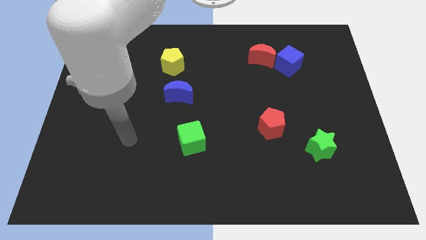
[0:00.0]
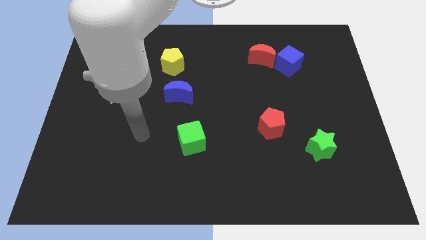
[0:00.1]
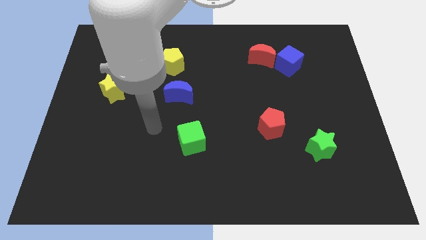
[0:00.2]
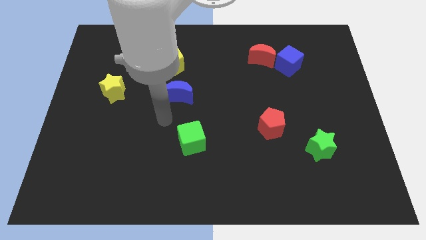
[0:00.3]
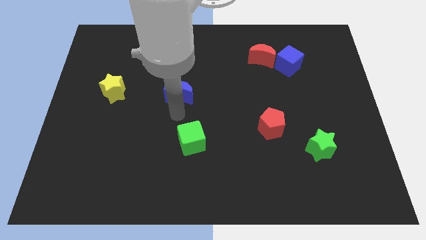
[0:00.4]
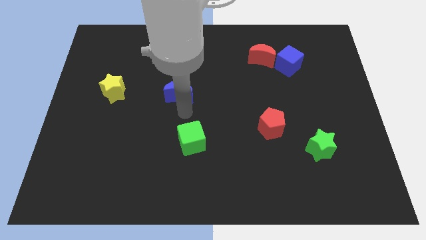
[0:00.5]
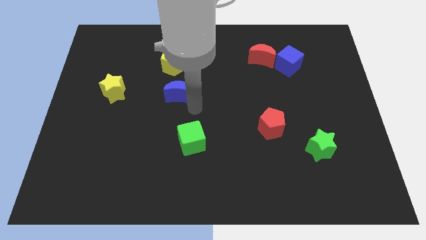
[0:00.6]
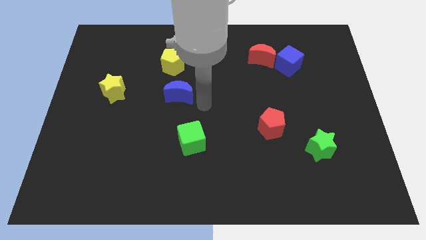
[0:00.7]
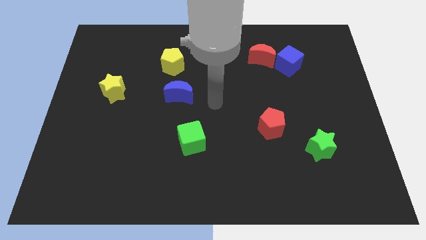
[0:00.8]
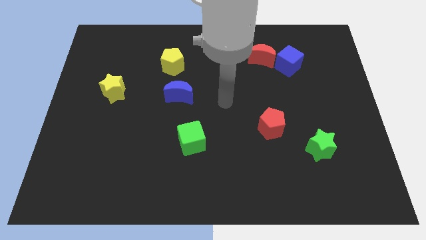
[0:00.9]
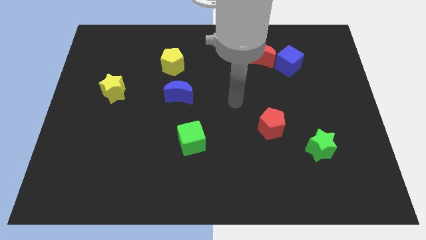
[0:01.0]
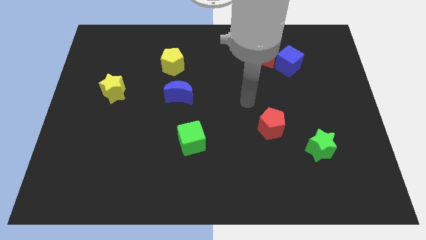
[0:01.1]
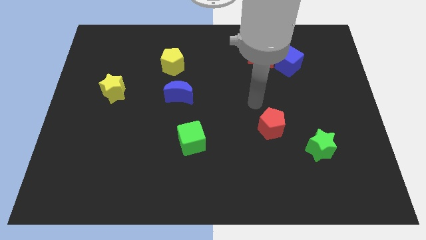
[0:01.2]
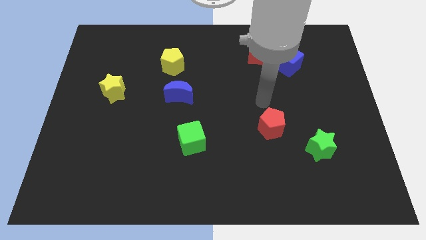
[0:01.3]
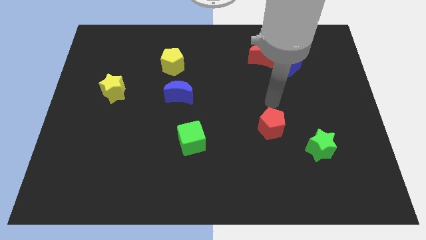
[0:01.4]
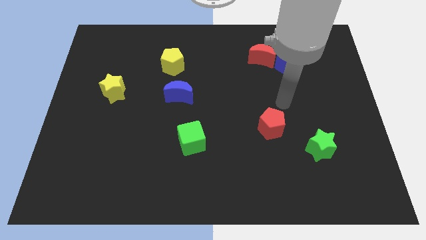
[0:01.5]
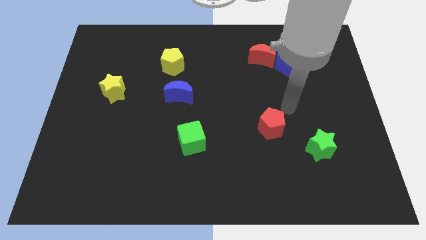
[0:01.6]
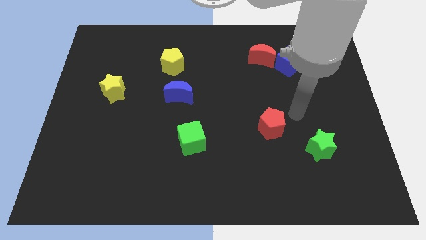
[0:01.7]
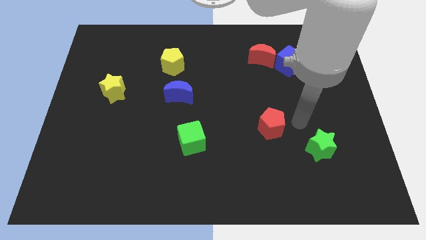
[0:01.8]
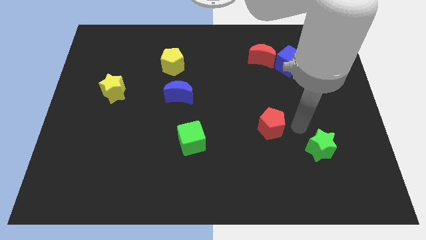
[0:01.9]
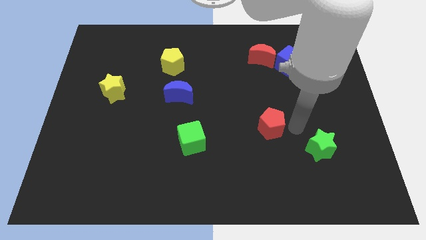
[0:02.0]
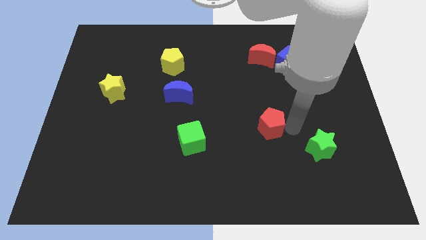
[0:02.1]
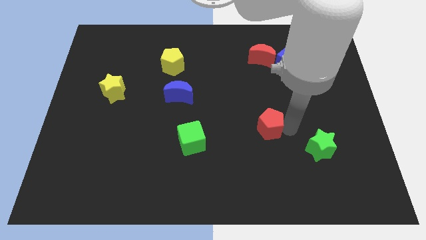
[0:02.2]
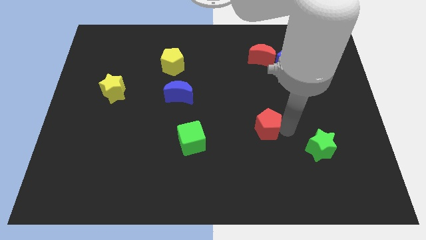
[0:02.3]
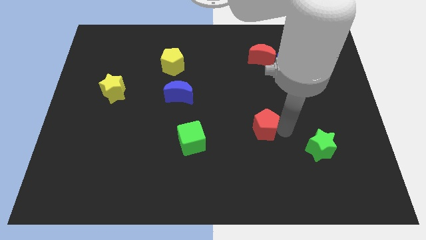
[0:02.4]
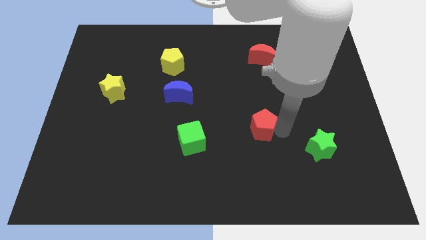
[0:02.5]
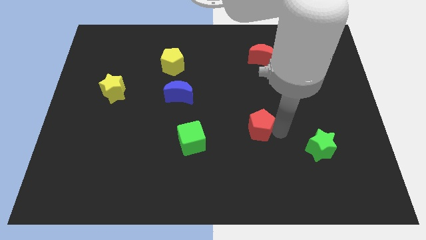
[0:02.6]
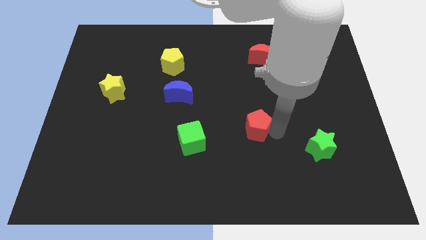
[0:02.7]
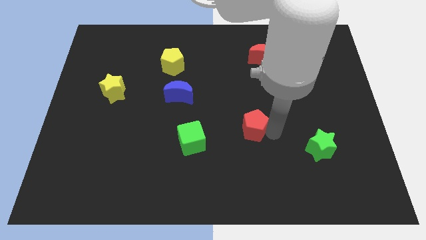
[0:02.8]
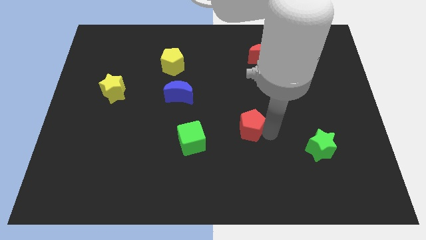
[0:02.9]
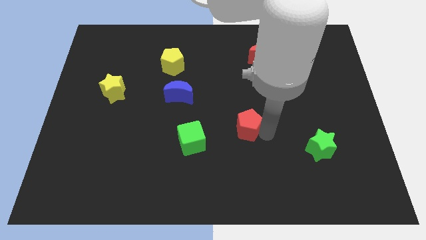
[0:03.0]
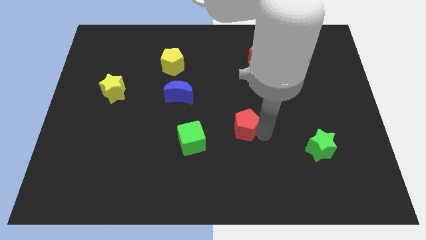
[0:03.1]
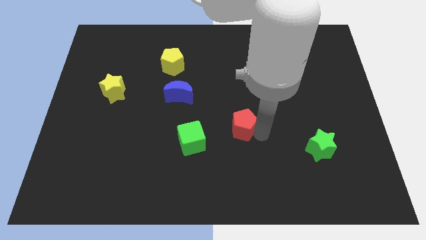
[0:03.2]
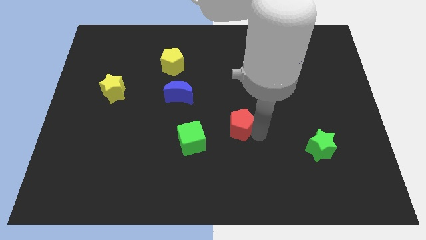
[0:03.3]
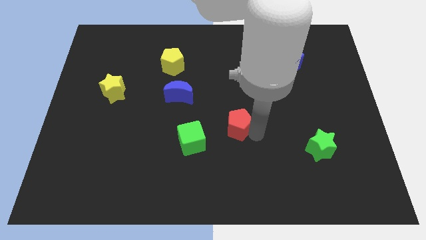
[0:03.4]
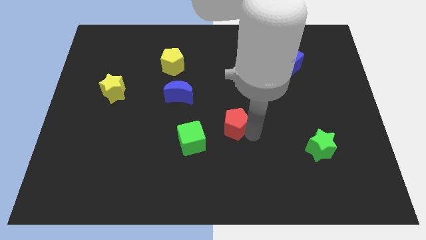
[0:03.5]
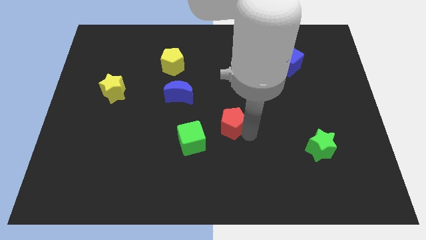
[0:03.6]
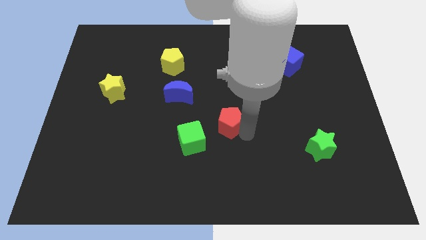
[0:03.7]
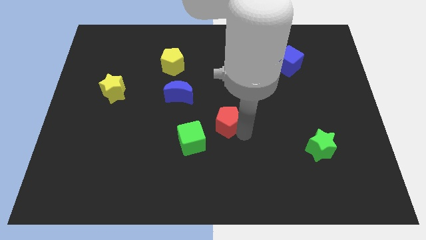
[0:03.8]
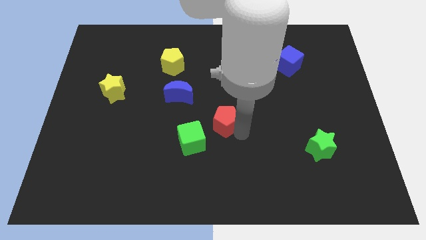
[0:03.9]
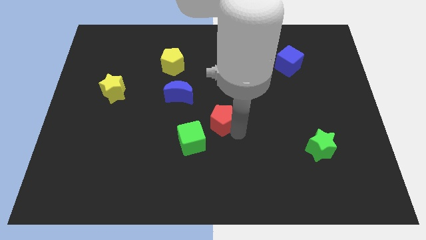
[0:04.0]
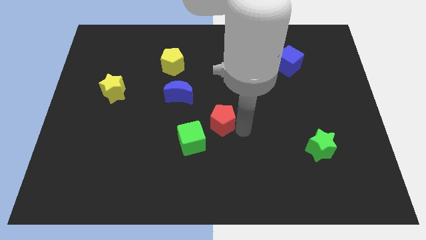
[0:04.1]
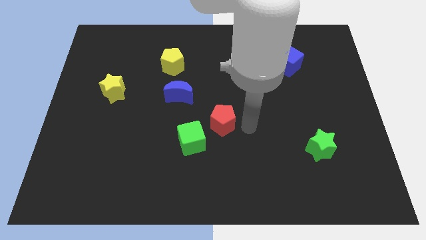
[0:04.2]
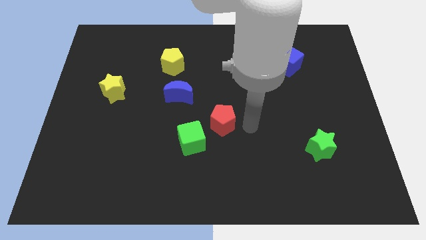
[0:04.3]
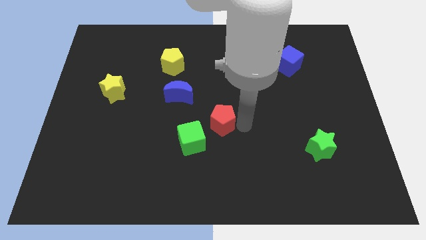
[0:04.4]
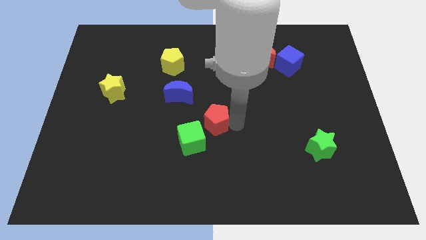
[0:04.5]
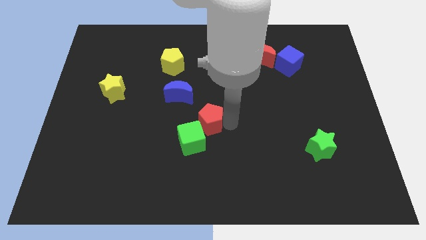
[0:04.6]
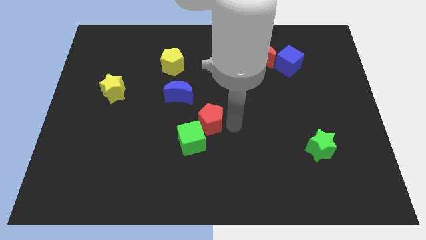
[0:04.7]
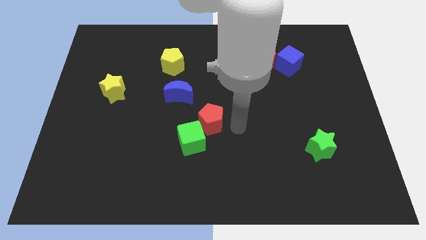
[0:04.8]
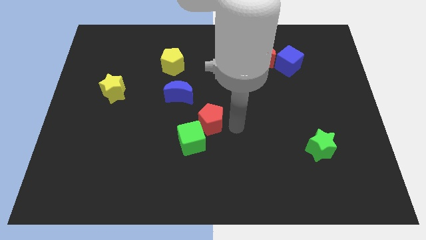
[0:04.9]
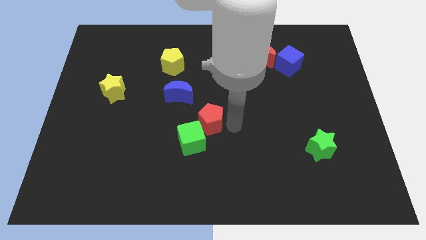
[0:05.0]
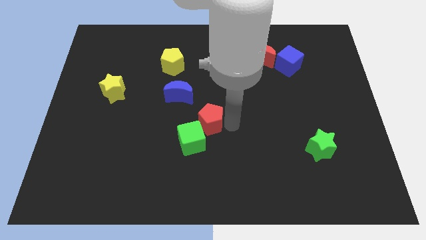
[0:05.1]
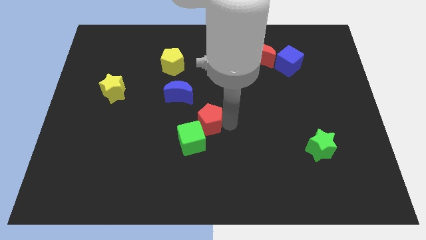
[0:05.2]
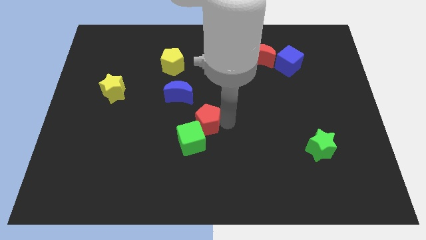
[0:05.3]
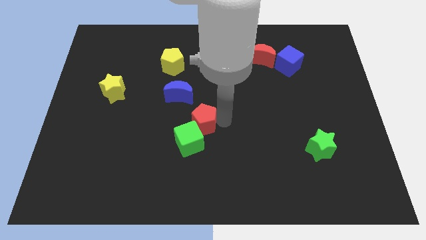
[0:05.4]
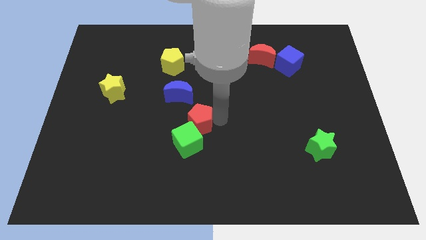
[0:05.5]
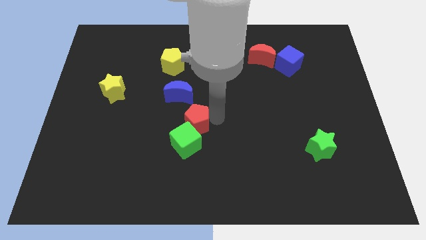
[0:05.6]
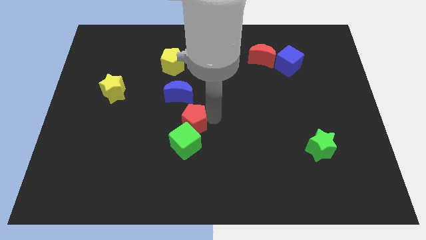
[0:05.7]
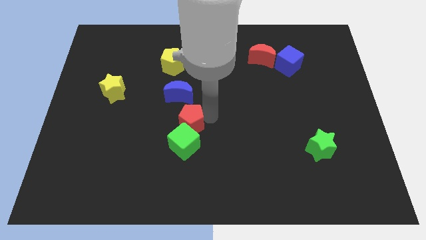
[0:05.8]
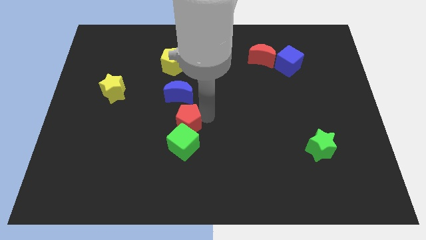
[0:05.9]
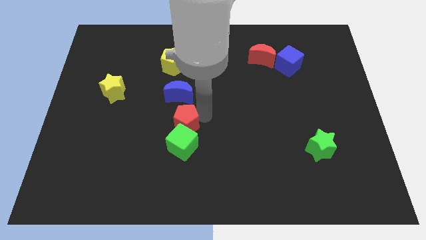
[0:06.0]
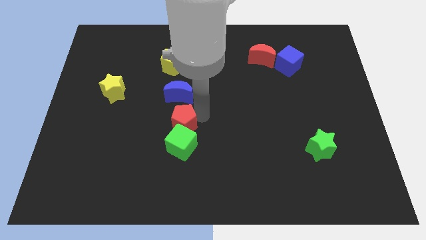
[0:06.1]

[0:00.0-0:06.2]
move the red pentagon left

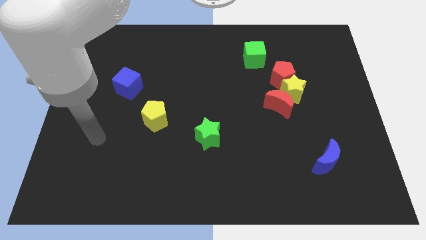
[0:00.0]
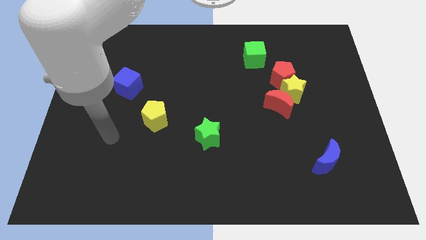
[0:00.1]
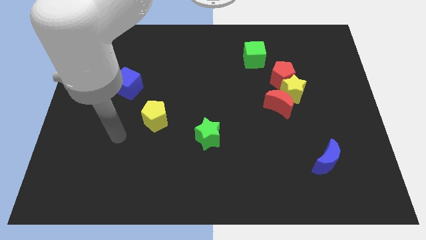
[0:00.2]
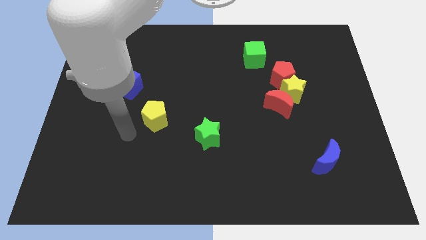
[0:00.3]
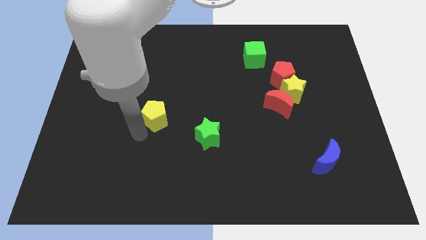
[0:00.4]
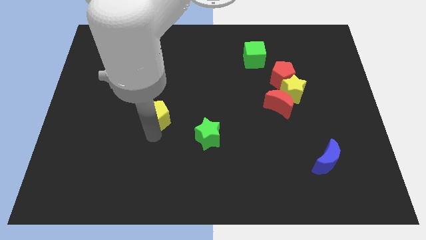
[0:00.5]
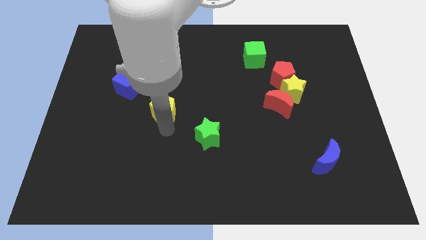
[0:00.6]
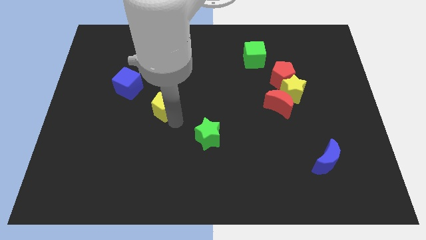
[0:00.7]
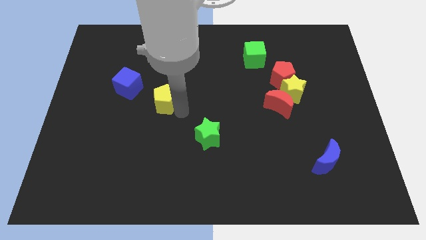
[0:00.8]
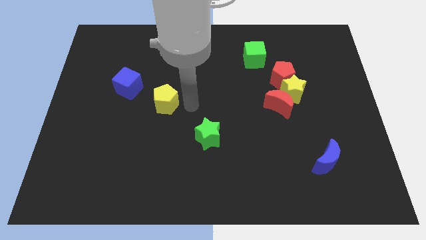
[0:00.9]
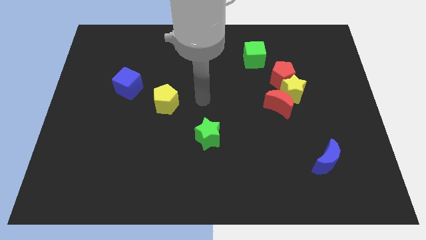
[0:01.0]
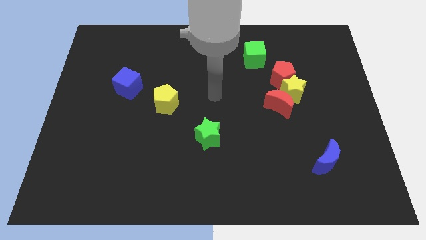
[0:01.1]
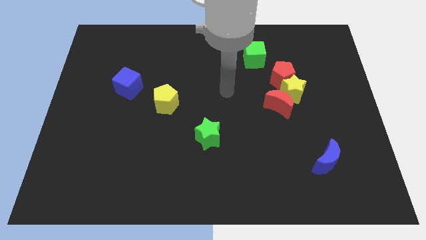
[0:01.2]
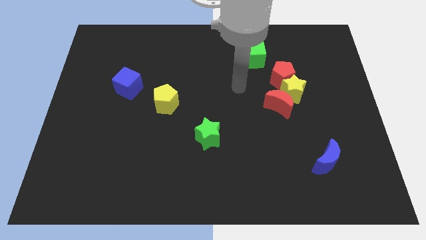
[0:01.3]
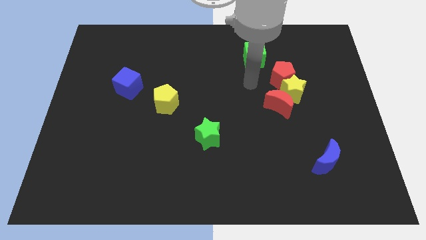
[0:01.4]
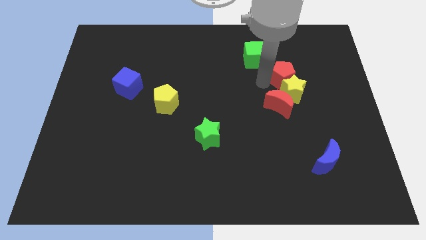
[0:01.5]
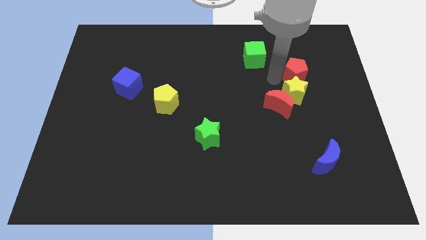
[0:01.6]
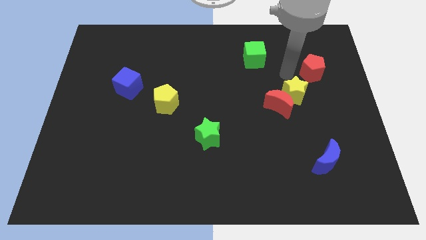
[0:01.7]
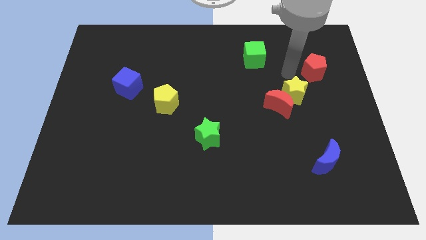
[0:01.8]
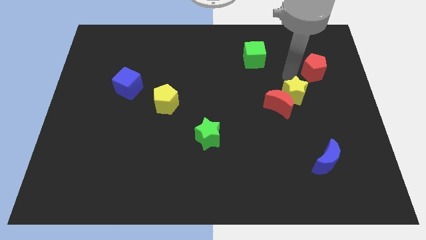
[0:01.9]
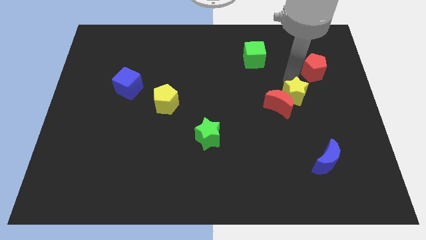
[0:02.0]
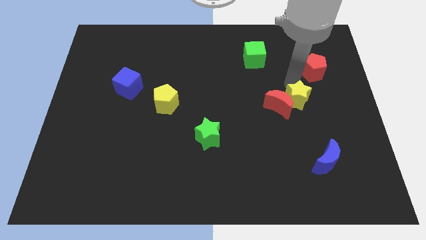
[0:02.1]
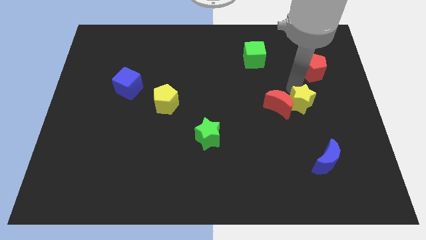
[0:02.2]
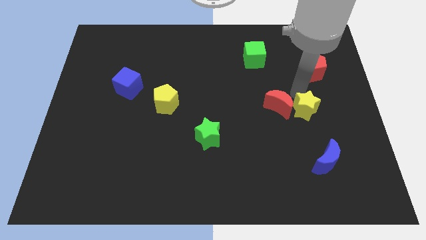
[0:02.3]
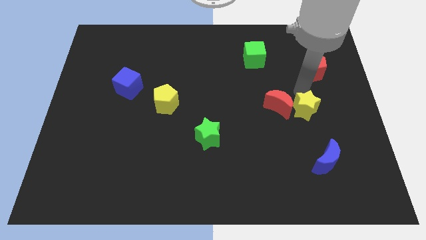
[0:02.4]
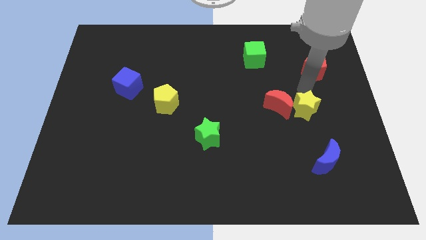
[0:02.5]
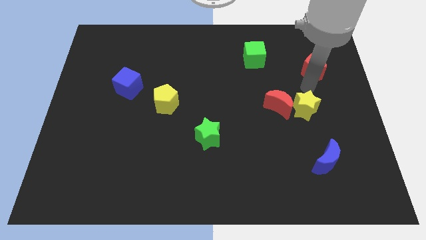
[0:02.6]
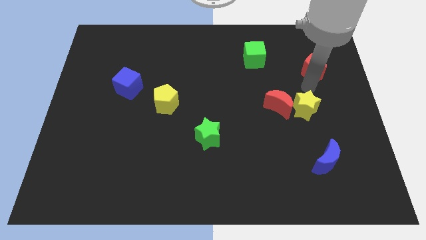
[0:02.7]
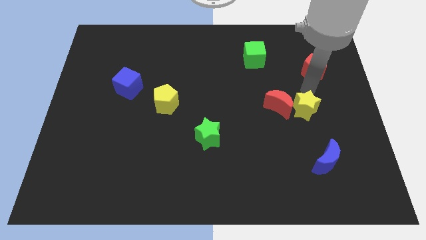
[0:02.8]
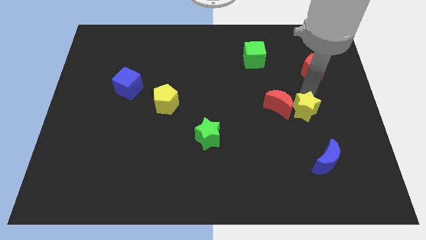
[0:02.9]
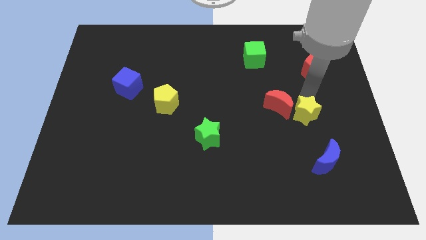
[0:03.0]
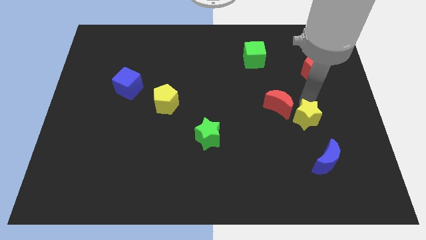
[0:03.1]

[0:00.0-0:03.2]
slide the yellow star downwards a little
